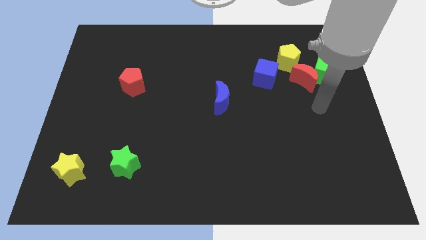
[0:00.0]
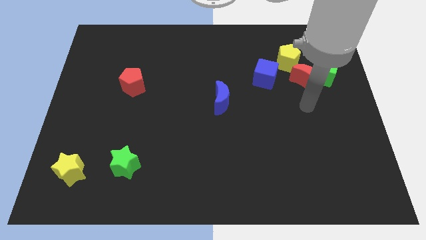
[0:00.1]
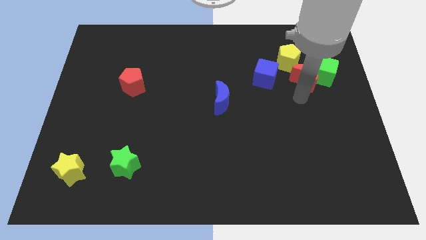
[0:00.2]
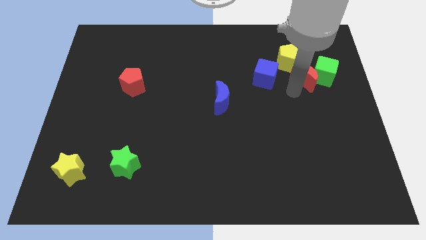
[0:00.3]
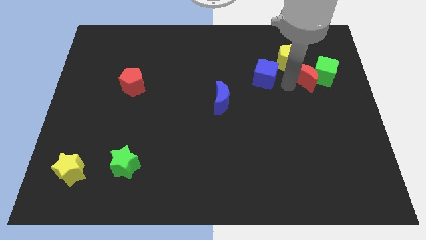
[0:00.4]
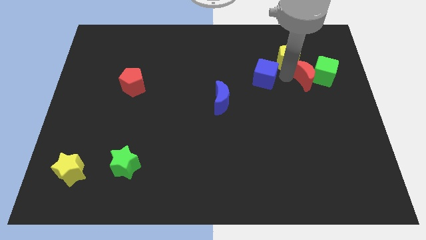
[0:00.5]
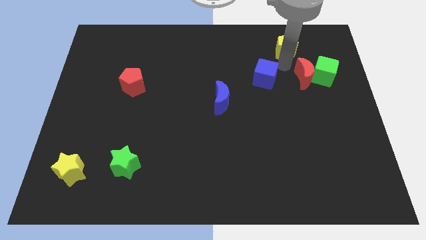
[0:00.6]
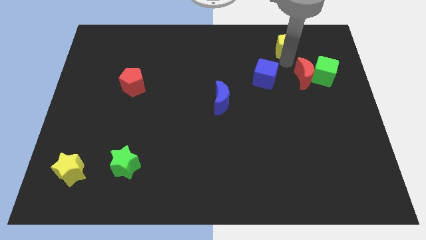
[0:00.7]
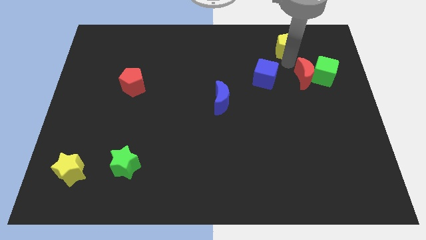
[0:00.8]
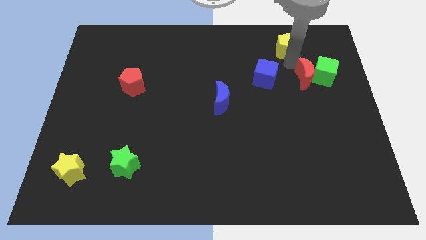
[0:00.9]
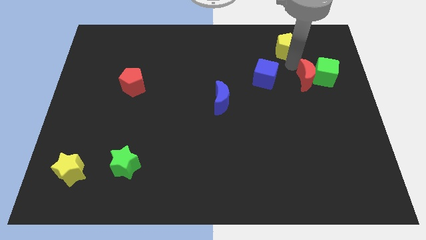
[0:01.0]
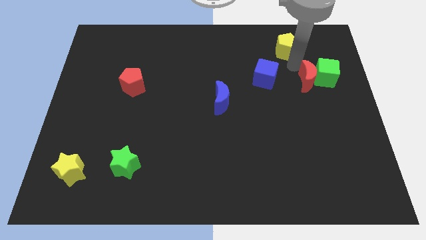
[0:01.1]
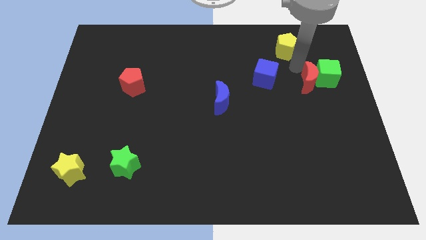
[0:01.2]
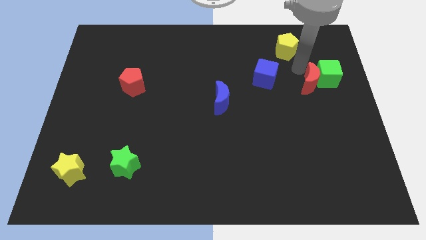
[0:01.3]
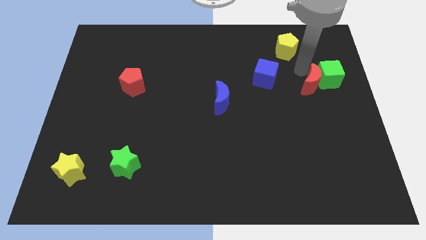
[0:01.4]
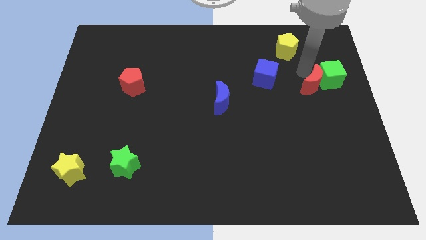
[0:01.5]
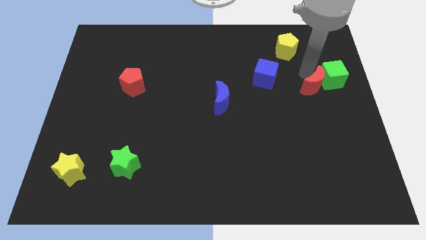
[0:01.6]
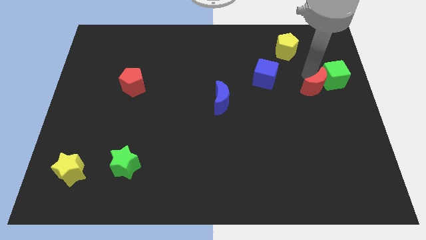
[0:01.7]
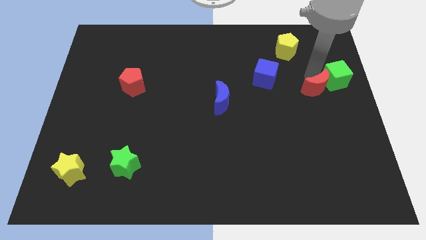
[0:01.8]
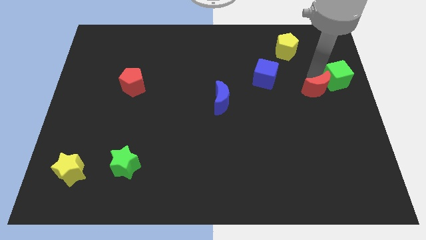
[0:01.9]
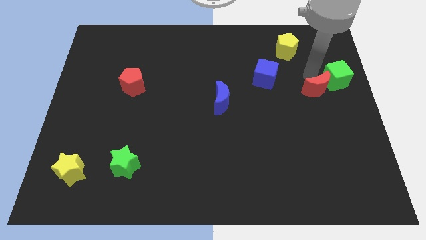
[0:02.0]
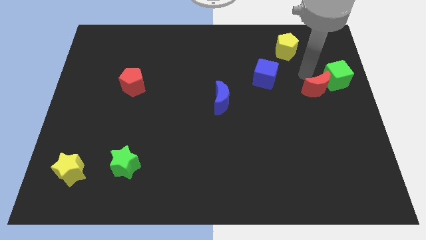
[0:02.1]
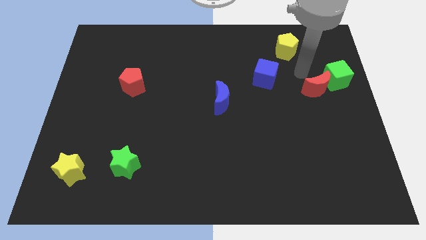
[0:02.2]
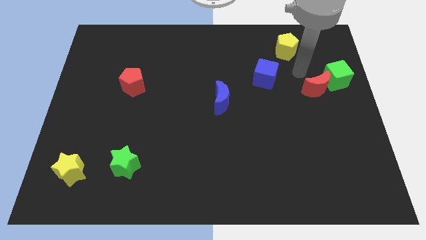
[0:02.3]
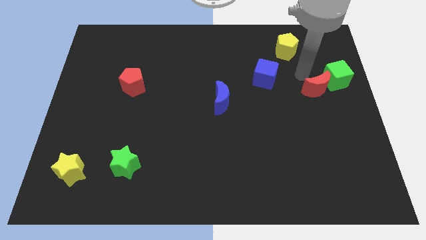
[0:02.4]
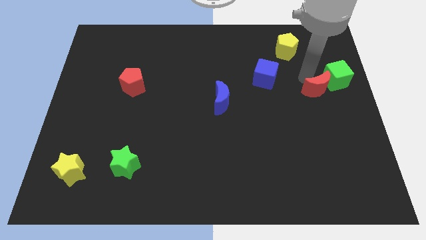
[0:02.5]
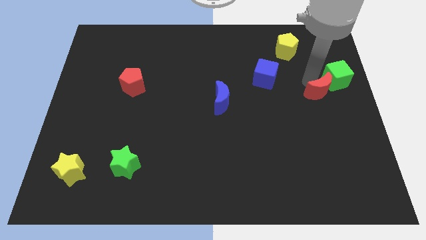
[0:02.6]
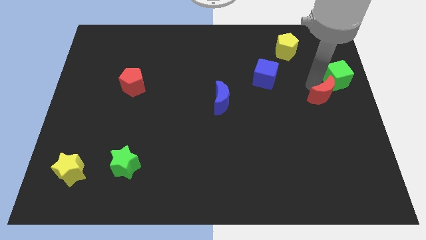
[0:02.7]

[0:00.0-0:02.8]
pull the red moon apart from the green cube, yellow pentagon, and blue cube

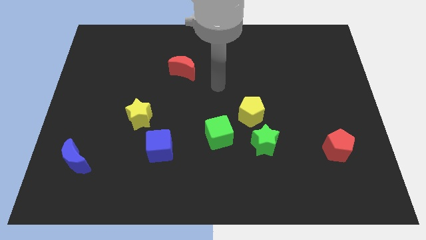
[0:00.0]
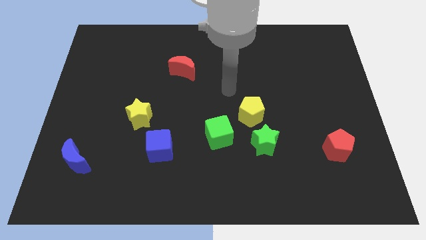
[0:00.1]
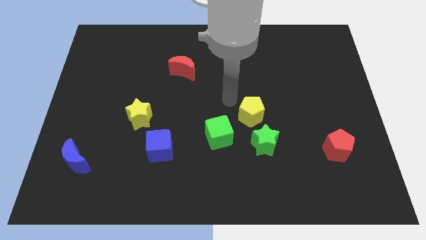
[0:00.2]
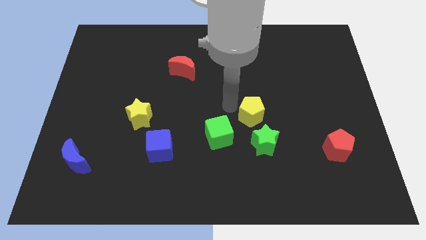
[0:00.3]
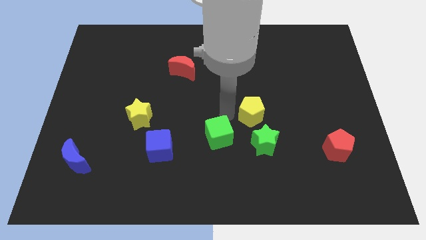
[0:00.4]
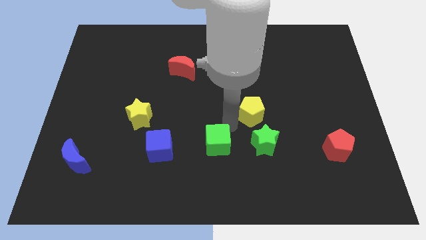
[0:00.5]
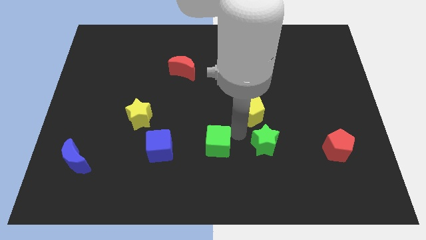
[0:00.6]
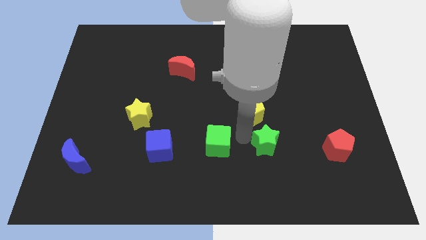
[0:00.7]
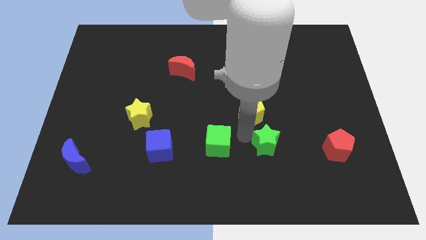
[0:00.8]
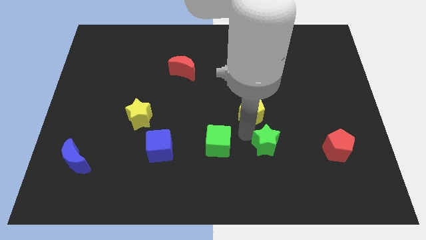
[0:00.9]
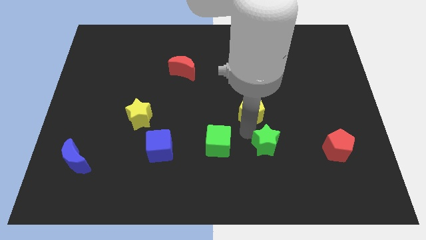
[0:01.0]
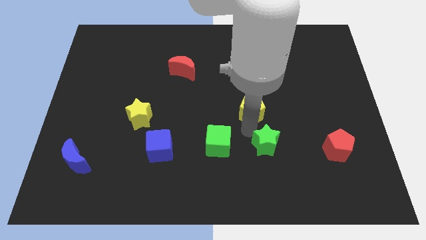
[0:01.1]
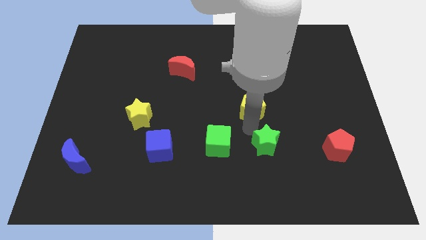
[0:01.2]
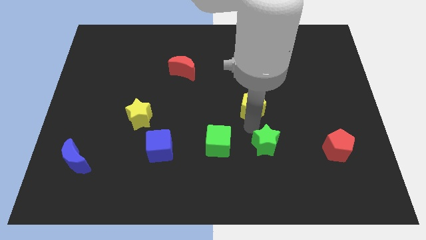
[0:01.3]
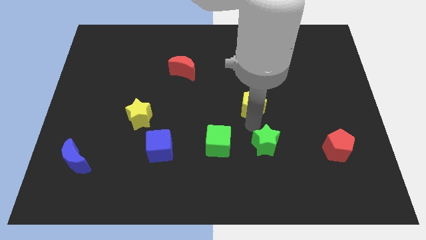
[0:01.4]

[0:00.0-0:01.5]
move the yellow pentagon away from the green star and green cube

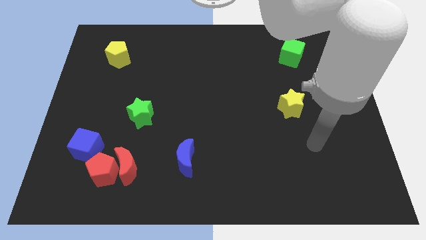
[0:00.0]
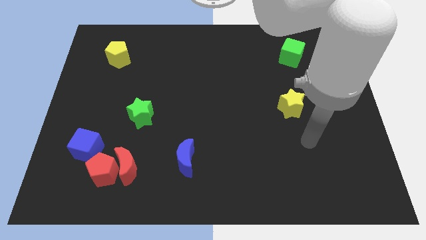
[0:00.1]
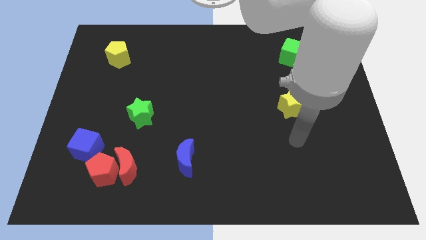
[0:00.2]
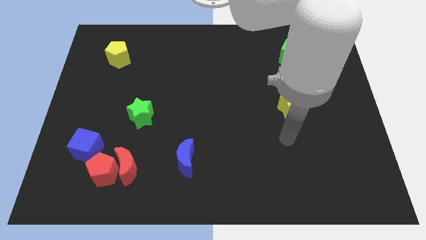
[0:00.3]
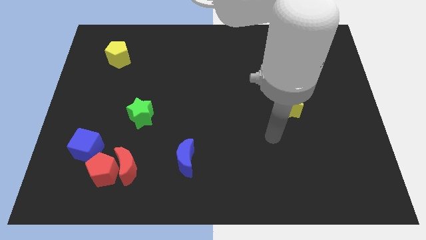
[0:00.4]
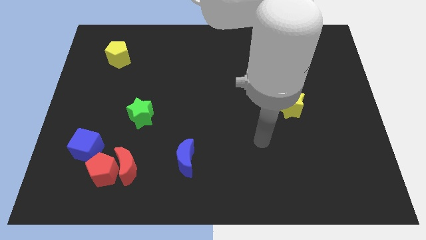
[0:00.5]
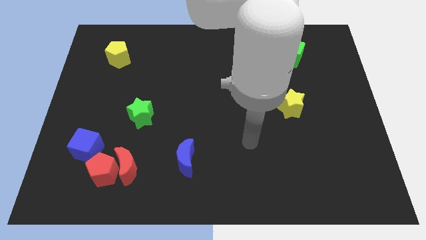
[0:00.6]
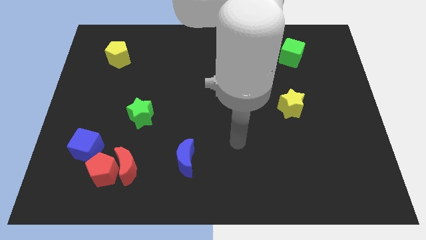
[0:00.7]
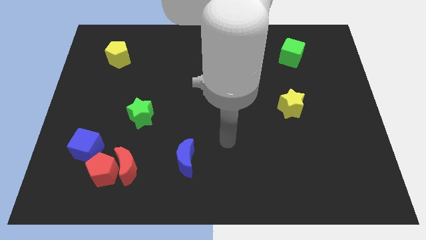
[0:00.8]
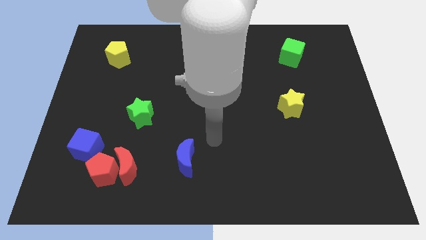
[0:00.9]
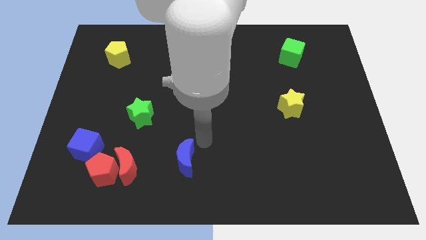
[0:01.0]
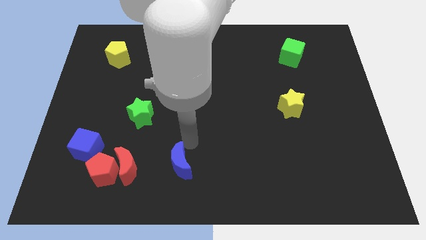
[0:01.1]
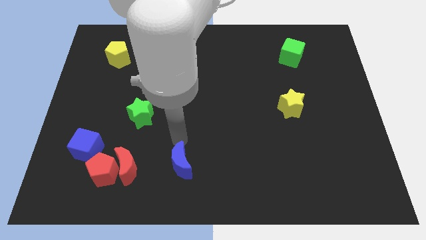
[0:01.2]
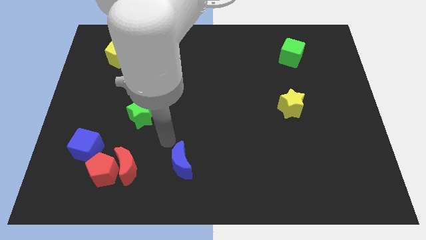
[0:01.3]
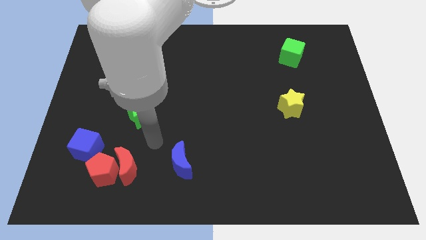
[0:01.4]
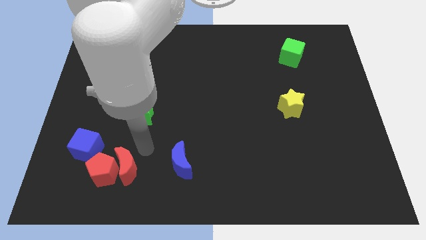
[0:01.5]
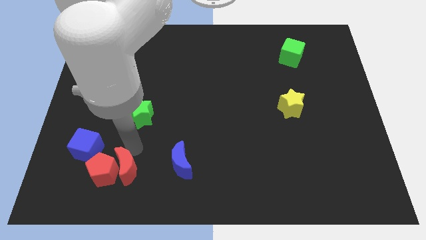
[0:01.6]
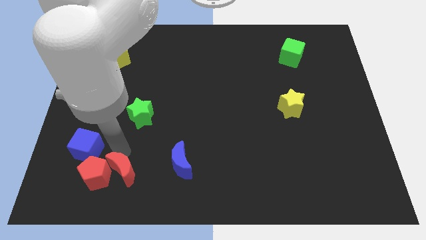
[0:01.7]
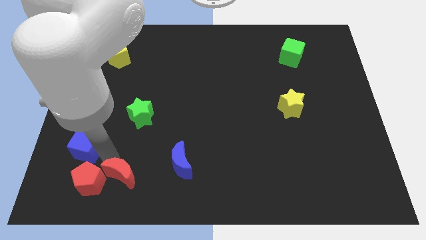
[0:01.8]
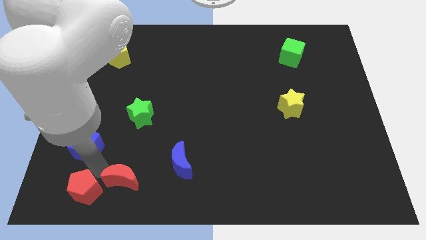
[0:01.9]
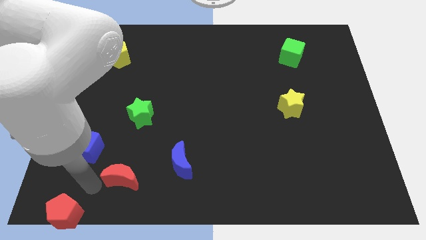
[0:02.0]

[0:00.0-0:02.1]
move the red moon away from the red pentagon

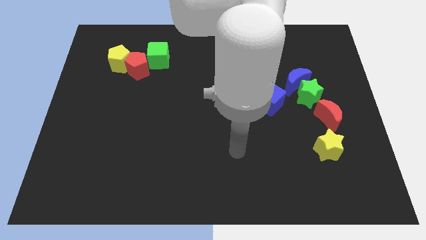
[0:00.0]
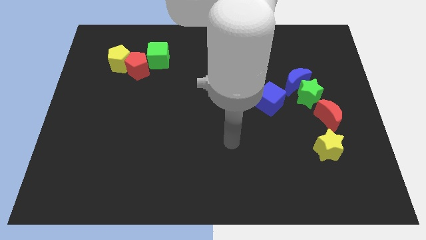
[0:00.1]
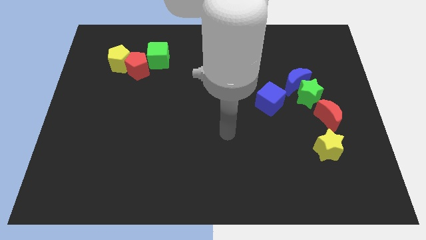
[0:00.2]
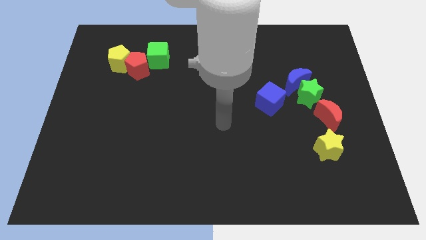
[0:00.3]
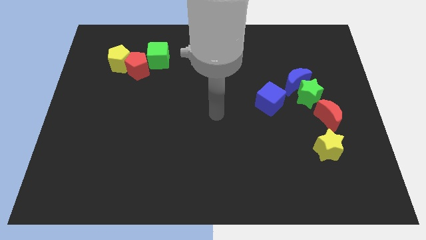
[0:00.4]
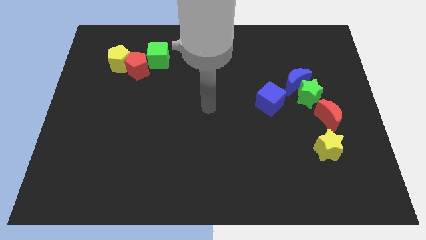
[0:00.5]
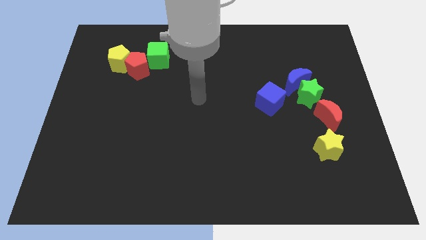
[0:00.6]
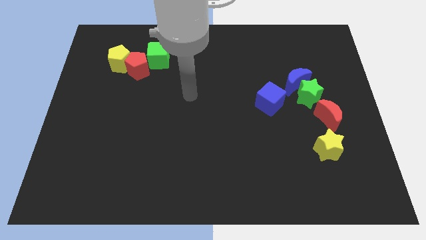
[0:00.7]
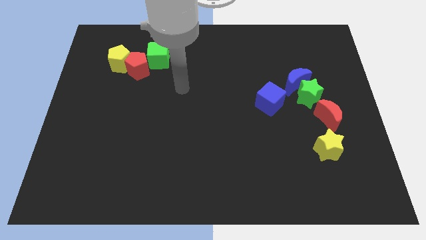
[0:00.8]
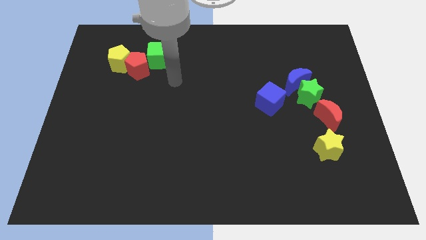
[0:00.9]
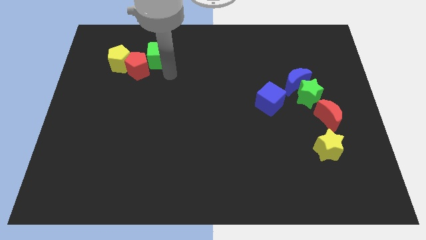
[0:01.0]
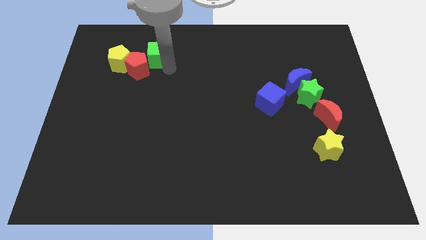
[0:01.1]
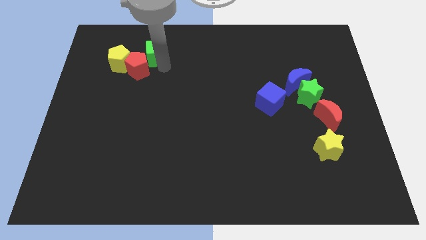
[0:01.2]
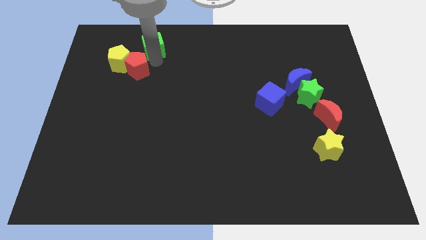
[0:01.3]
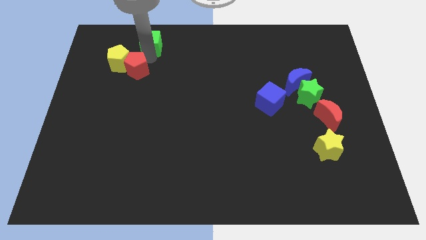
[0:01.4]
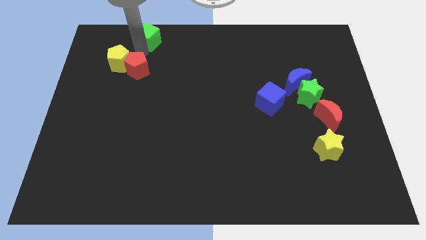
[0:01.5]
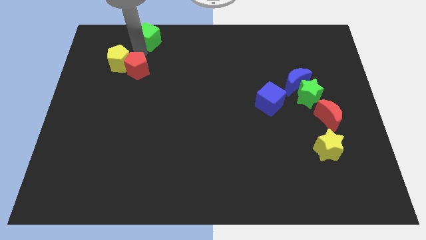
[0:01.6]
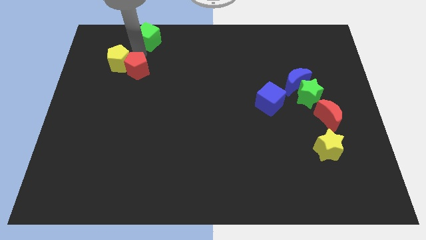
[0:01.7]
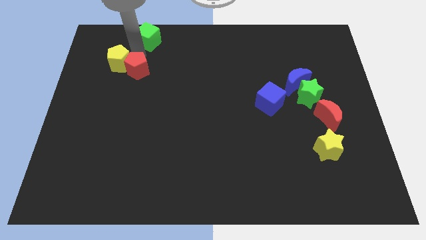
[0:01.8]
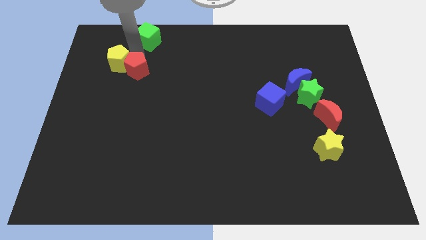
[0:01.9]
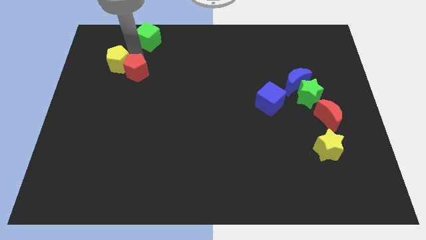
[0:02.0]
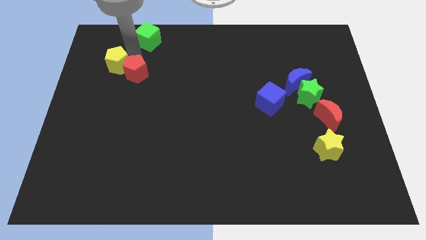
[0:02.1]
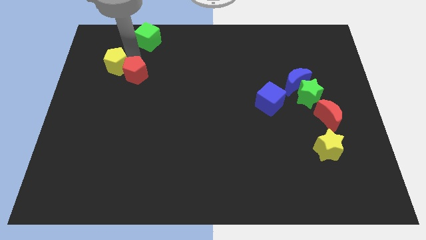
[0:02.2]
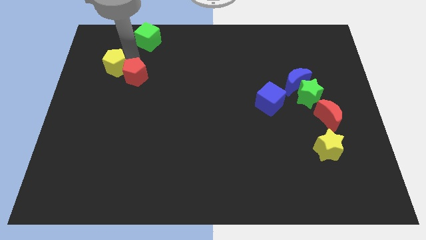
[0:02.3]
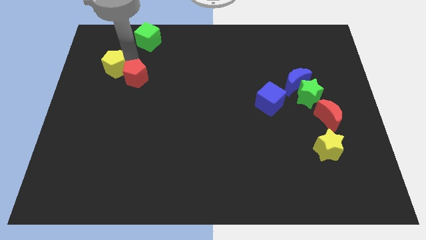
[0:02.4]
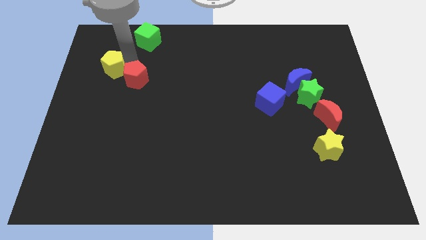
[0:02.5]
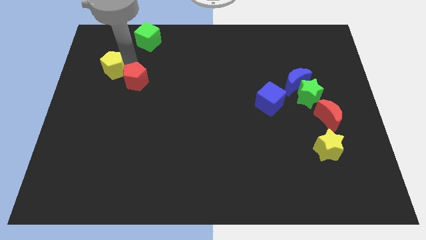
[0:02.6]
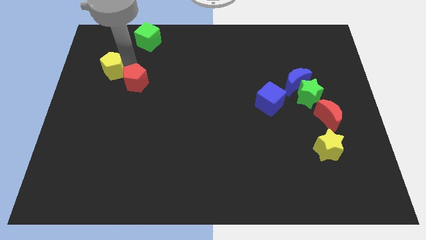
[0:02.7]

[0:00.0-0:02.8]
move the red pentagon away from the yellow pentagon and green cube
